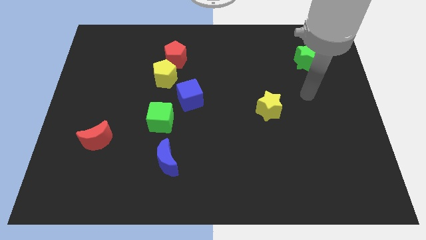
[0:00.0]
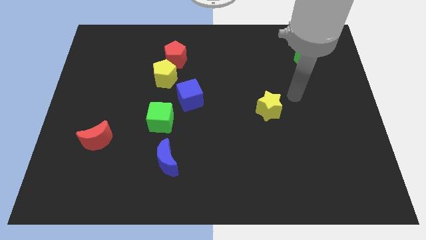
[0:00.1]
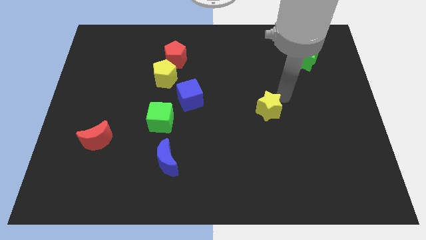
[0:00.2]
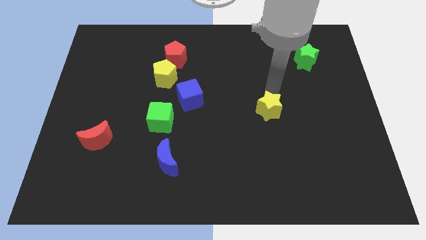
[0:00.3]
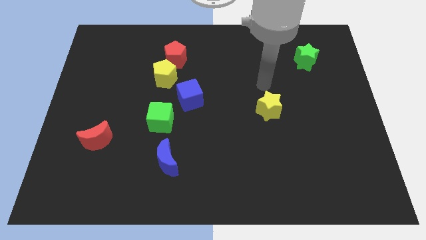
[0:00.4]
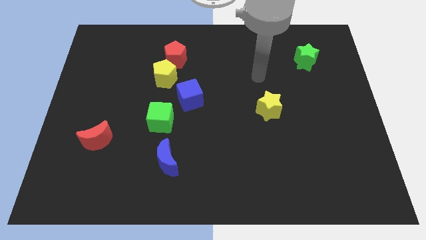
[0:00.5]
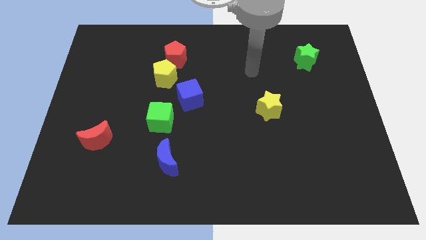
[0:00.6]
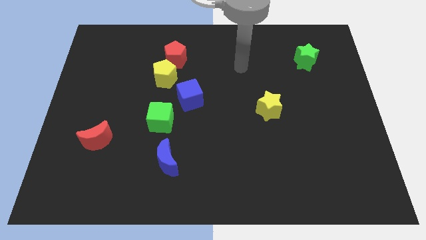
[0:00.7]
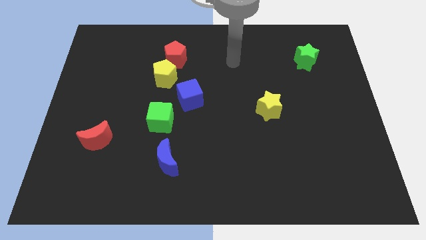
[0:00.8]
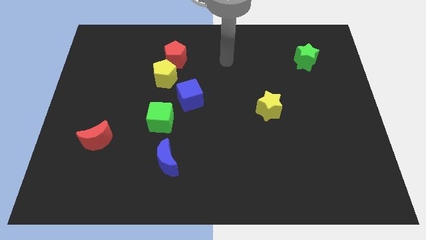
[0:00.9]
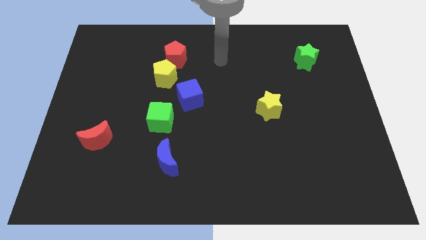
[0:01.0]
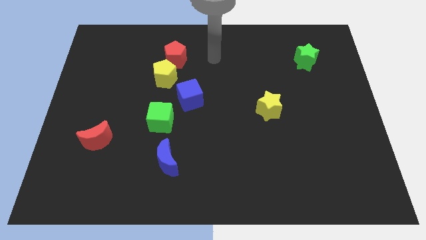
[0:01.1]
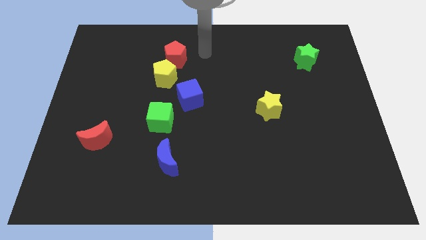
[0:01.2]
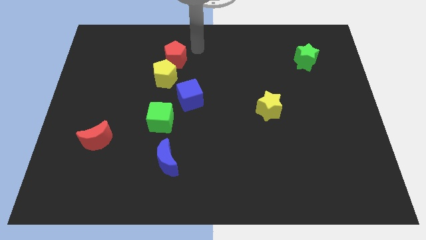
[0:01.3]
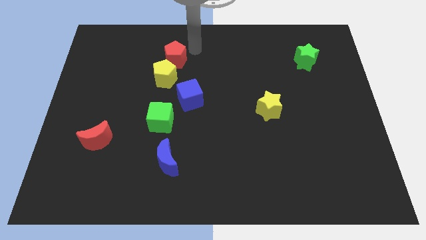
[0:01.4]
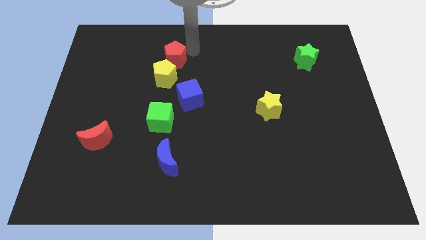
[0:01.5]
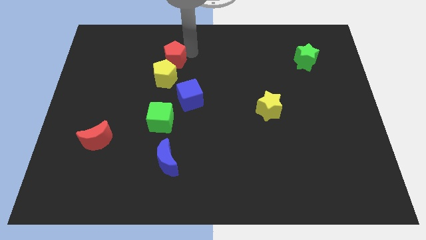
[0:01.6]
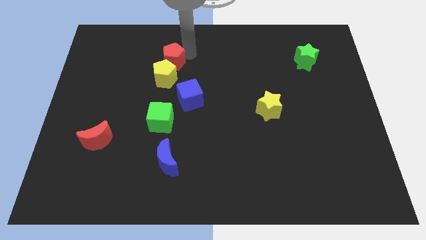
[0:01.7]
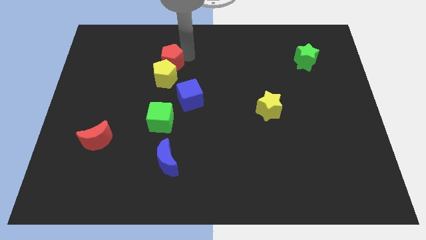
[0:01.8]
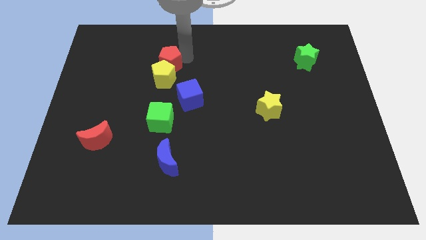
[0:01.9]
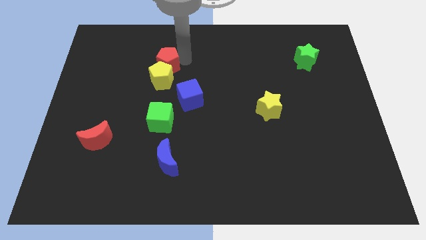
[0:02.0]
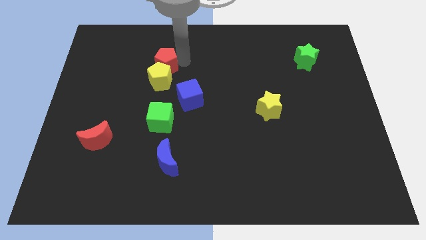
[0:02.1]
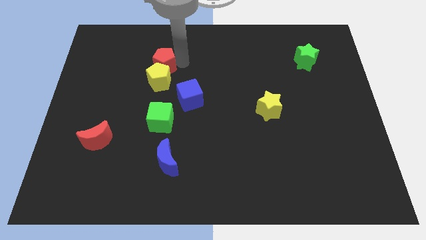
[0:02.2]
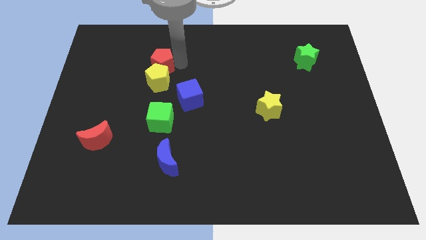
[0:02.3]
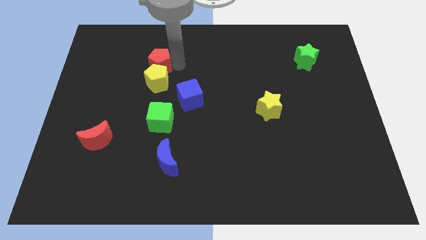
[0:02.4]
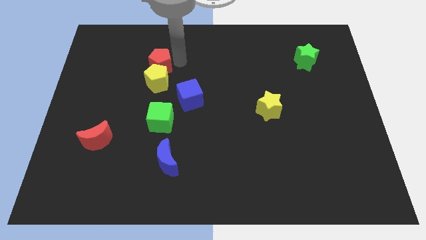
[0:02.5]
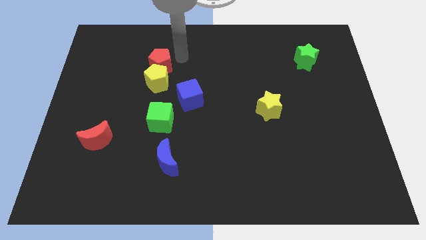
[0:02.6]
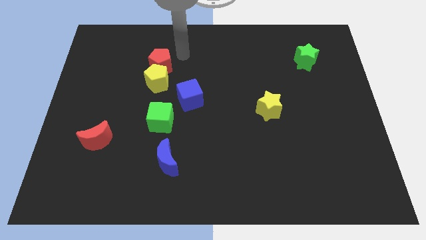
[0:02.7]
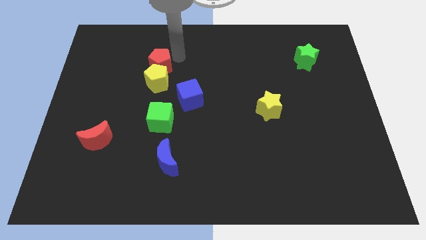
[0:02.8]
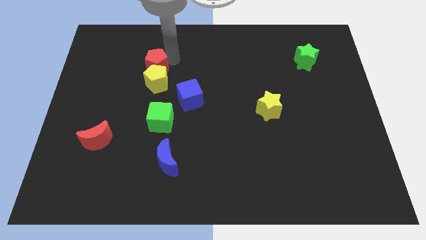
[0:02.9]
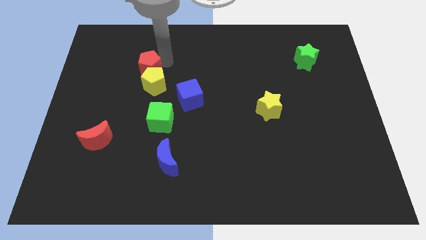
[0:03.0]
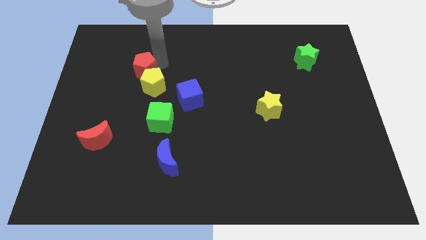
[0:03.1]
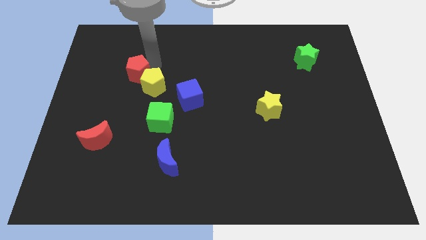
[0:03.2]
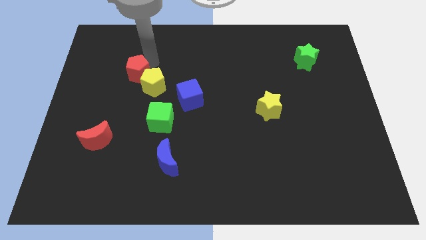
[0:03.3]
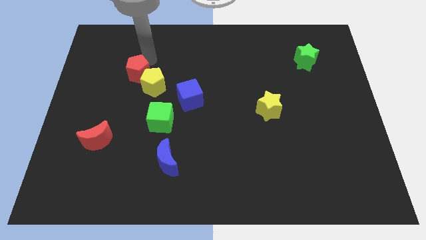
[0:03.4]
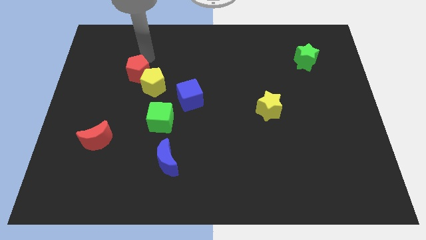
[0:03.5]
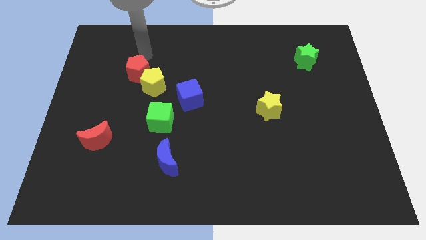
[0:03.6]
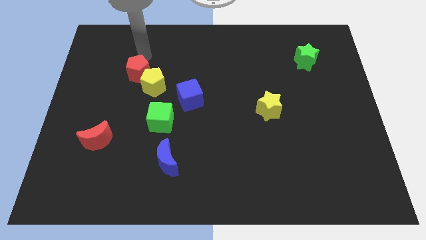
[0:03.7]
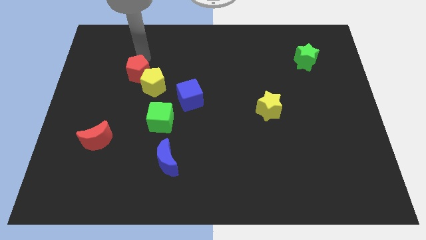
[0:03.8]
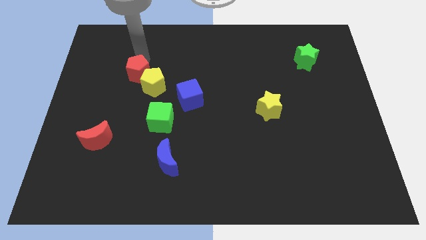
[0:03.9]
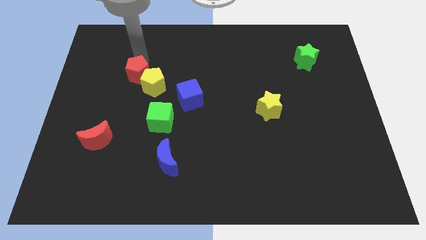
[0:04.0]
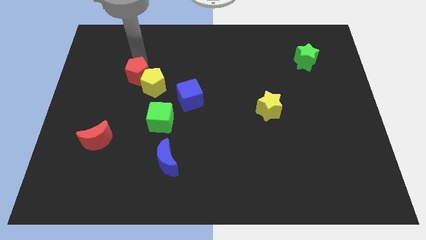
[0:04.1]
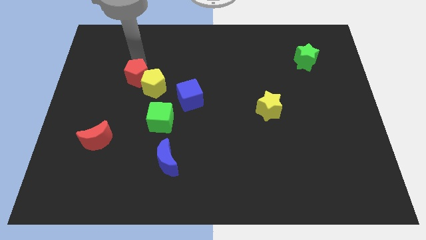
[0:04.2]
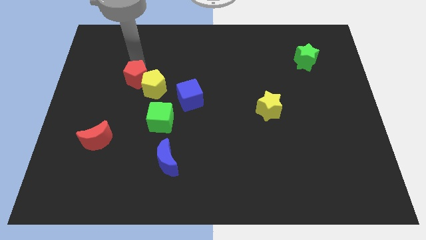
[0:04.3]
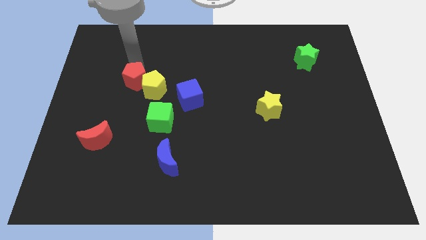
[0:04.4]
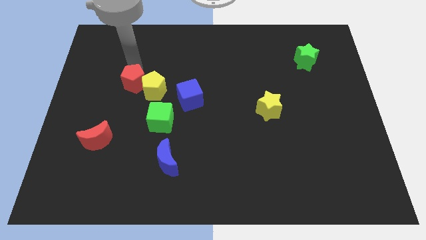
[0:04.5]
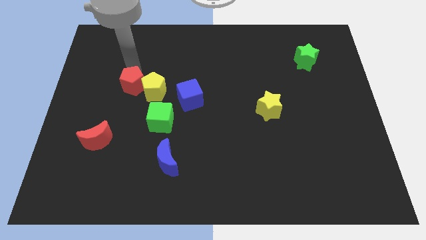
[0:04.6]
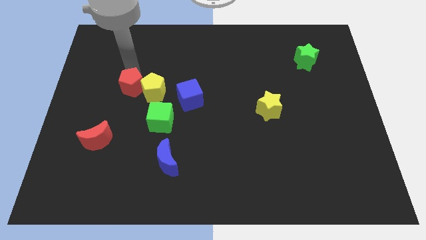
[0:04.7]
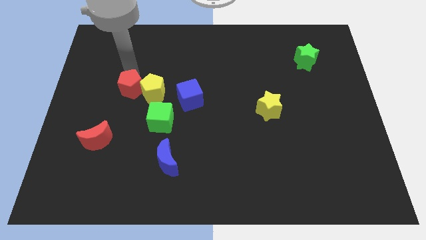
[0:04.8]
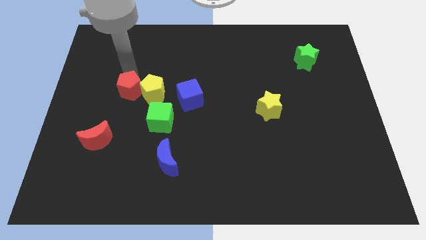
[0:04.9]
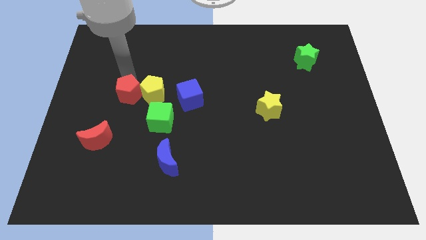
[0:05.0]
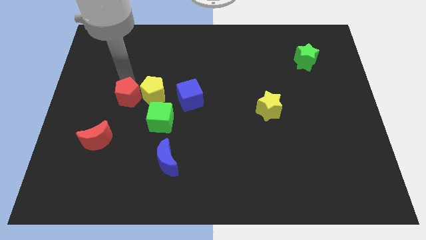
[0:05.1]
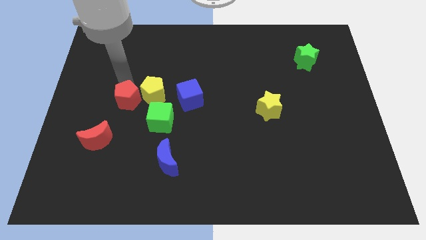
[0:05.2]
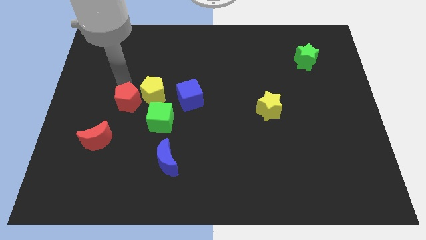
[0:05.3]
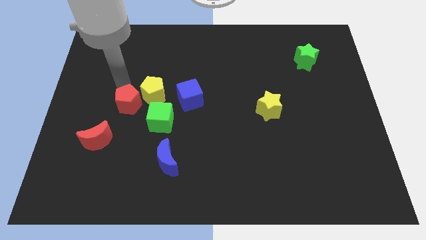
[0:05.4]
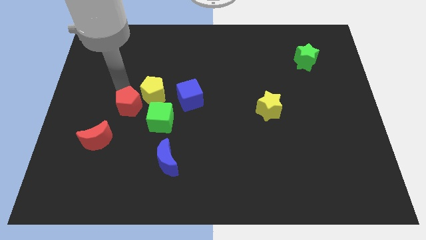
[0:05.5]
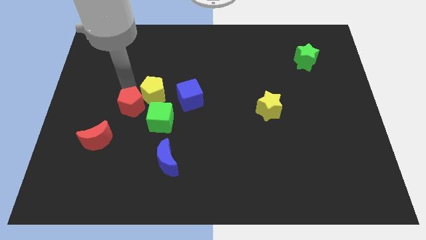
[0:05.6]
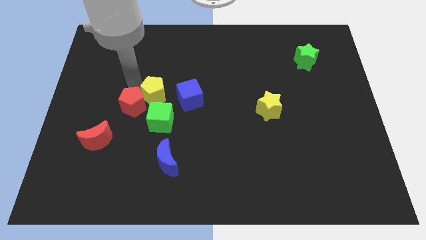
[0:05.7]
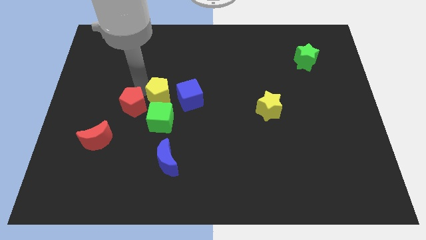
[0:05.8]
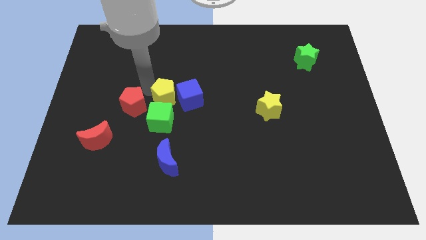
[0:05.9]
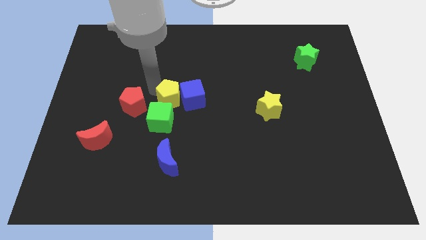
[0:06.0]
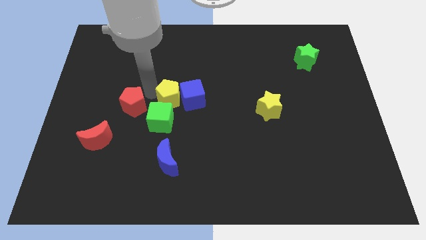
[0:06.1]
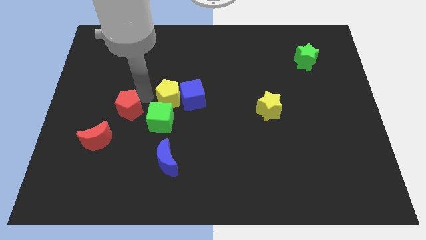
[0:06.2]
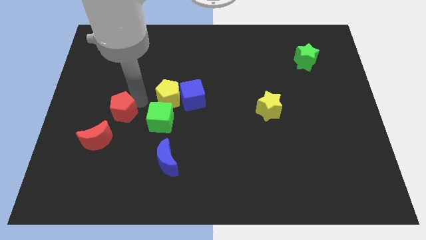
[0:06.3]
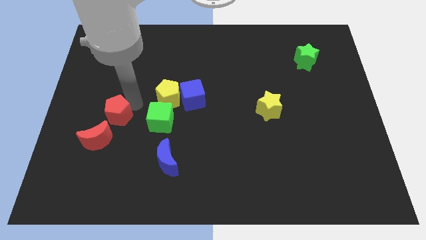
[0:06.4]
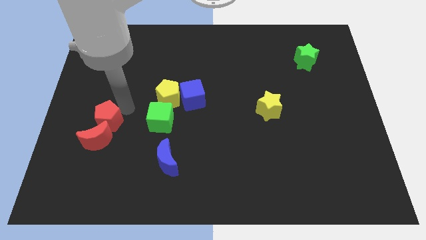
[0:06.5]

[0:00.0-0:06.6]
move the red pentagon next to the red moon
